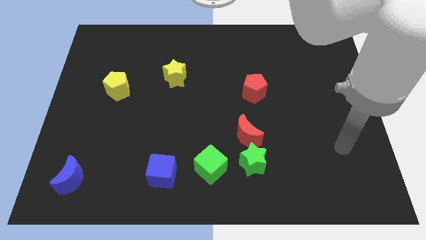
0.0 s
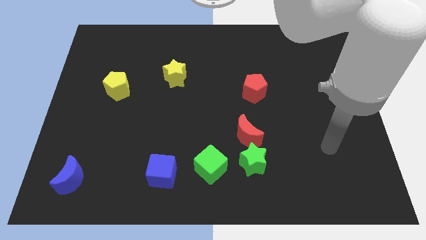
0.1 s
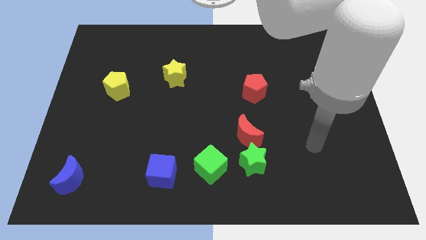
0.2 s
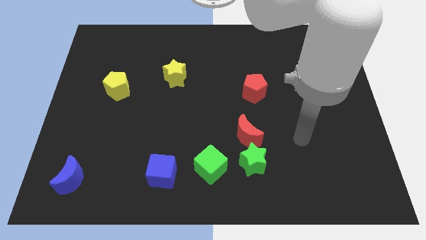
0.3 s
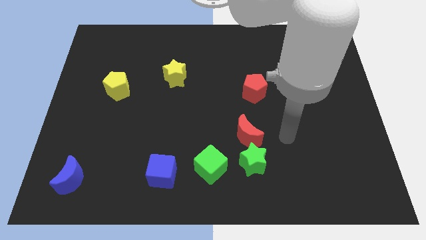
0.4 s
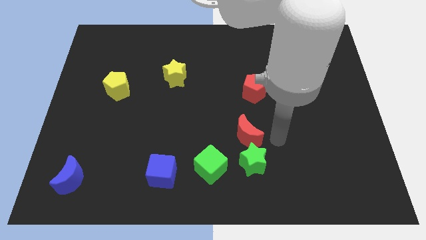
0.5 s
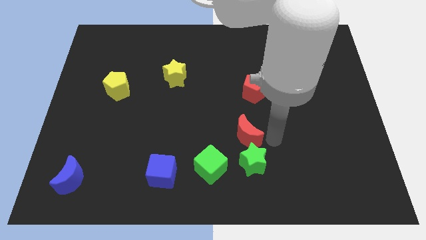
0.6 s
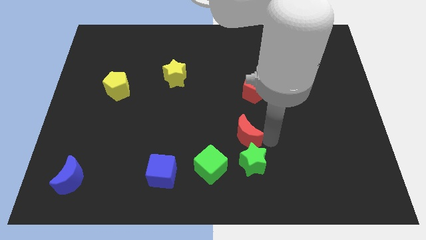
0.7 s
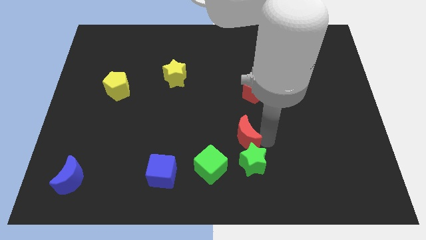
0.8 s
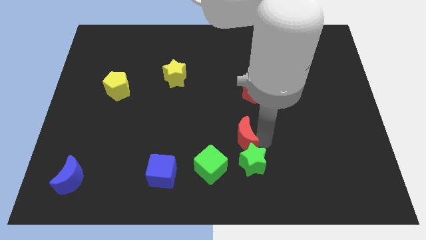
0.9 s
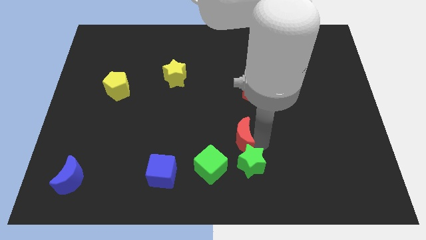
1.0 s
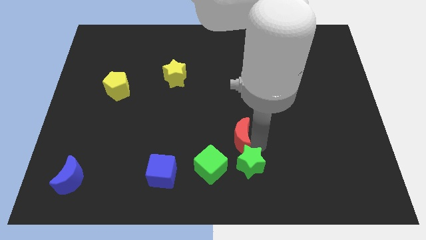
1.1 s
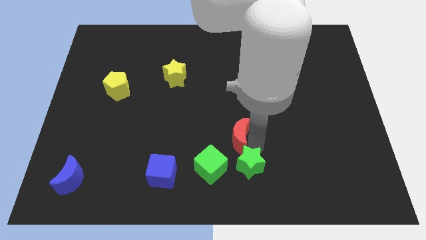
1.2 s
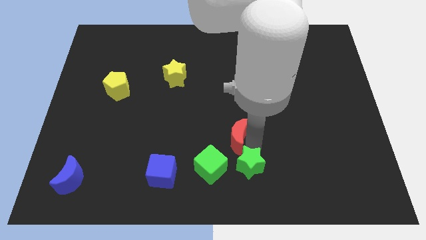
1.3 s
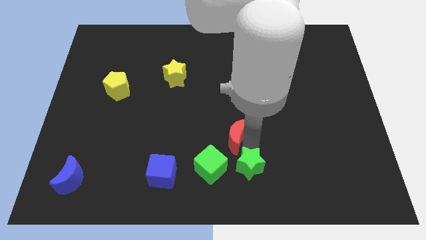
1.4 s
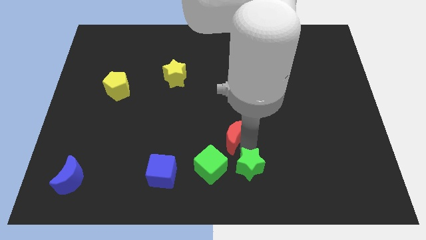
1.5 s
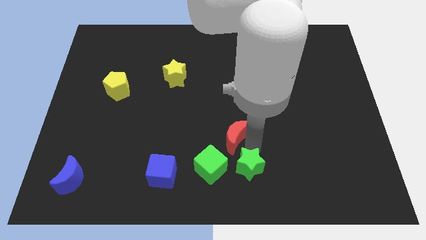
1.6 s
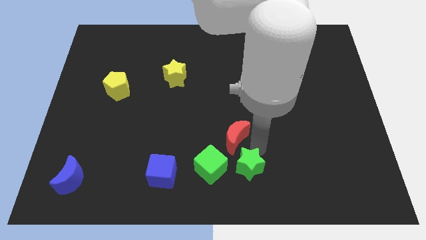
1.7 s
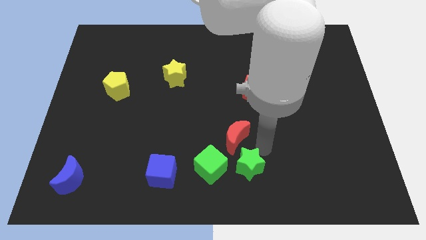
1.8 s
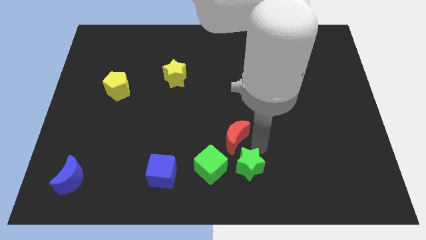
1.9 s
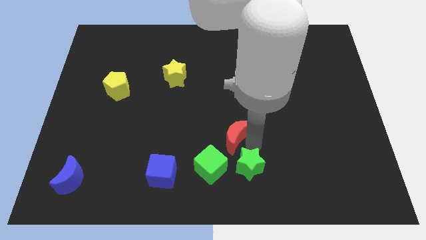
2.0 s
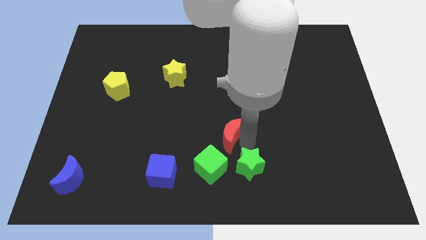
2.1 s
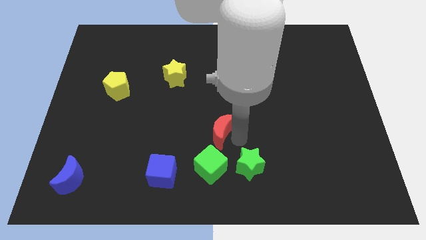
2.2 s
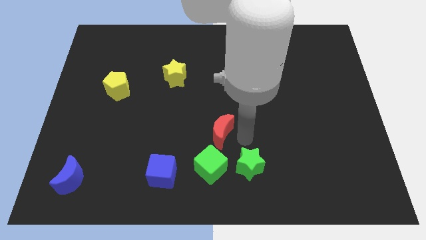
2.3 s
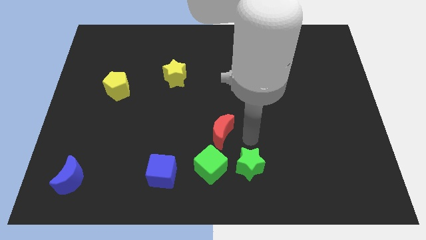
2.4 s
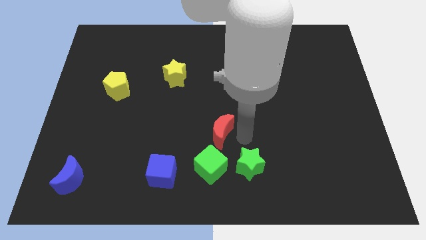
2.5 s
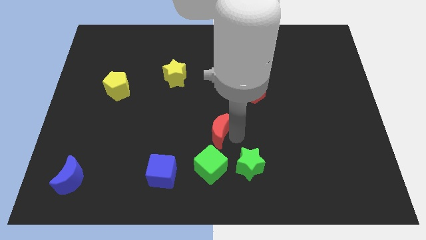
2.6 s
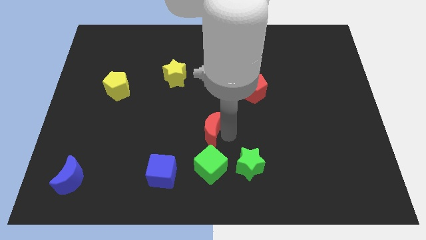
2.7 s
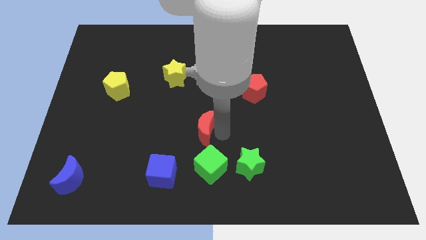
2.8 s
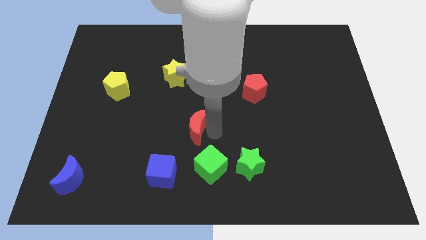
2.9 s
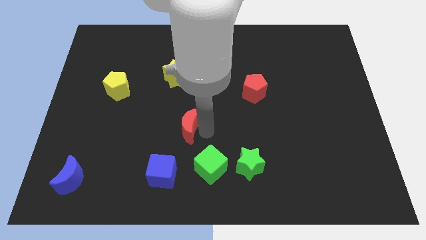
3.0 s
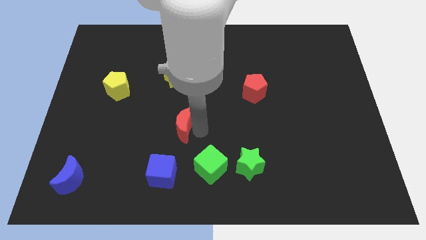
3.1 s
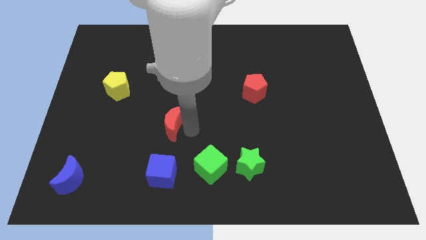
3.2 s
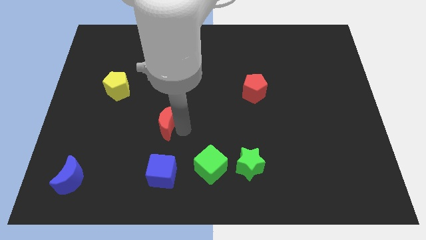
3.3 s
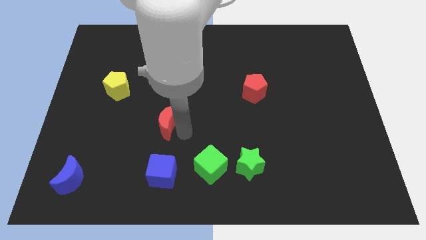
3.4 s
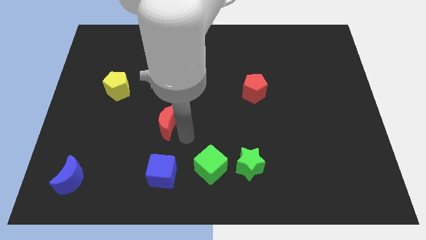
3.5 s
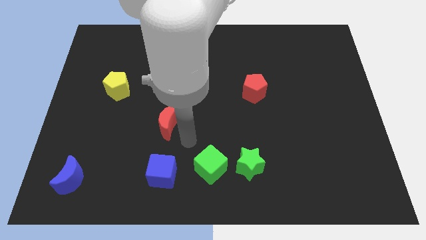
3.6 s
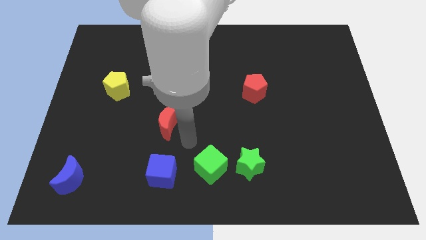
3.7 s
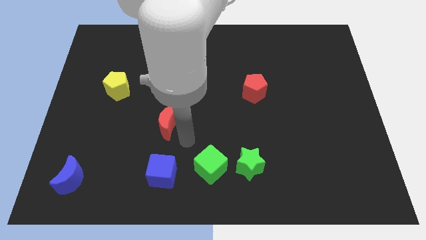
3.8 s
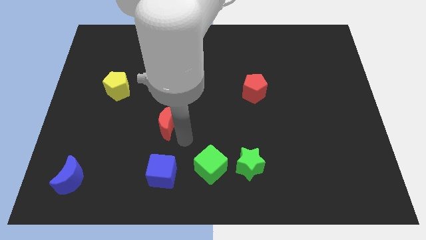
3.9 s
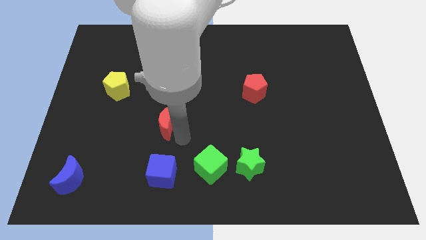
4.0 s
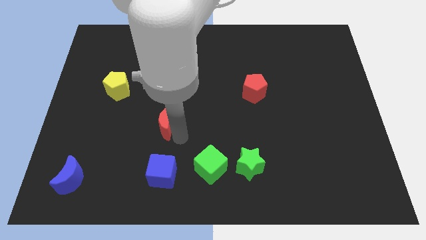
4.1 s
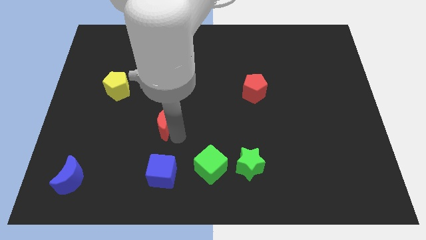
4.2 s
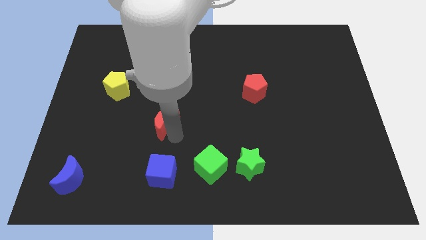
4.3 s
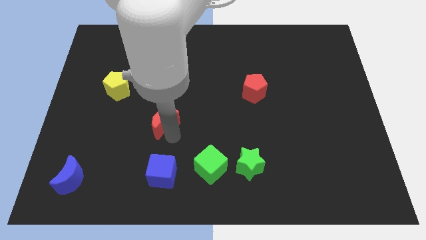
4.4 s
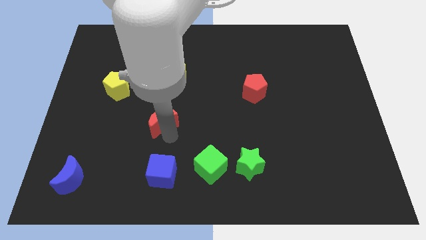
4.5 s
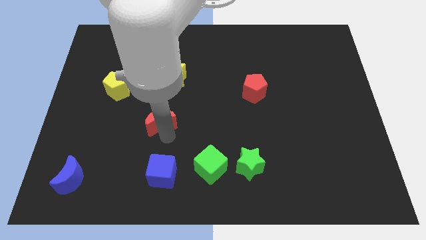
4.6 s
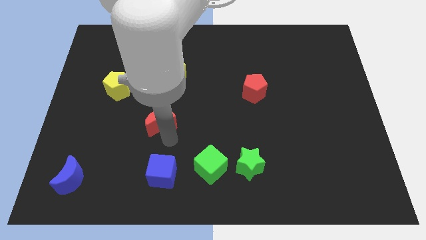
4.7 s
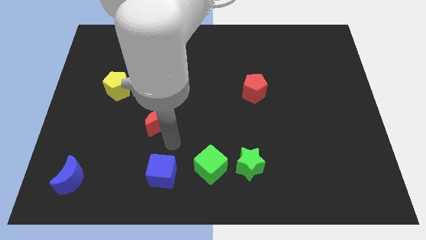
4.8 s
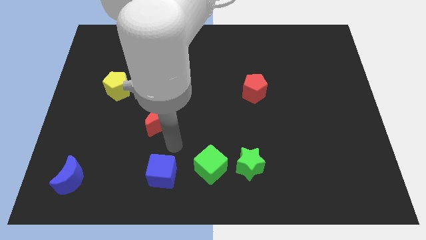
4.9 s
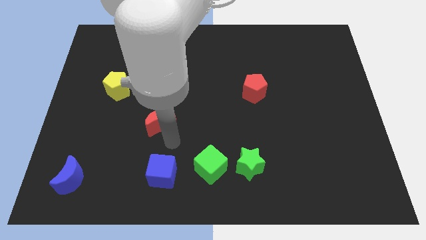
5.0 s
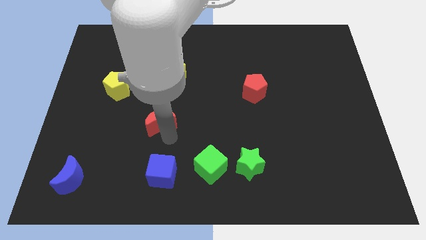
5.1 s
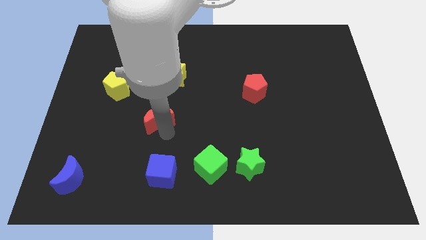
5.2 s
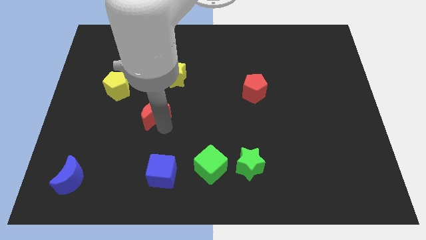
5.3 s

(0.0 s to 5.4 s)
push the red moon to the bottom right side of the yellow pentagon

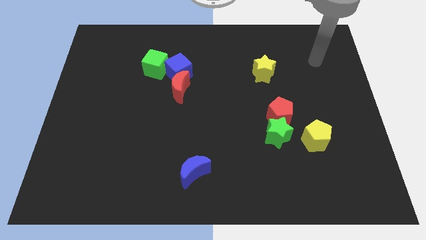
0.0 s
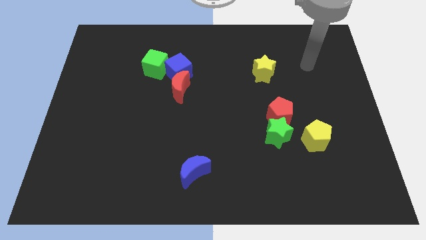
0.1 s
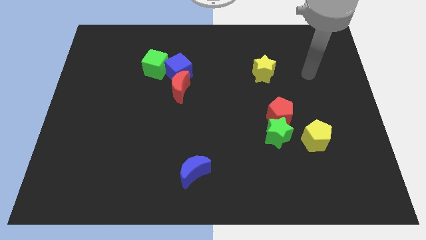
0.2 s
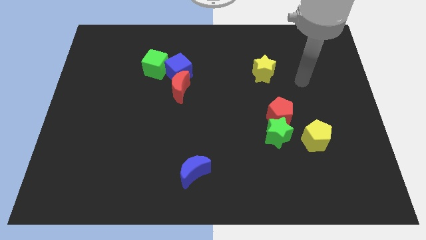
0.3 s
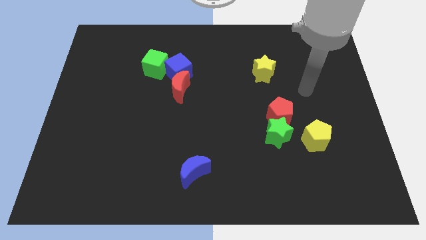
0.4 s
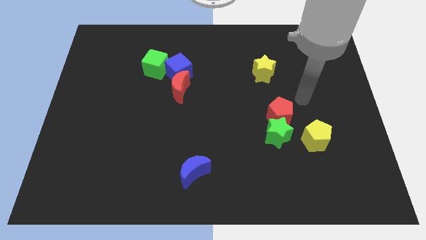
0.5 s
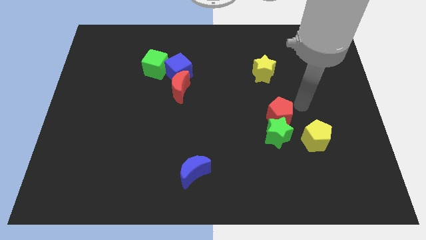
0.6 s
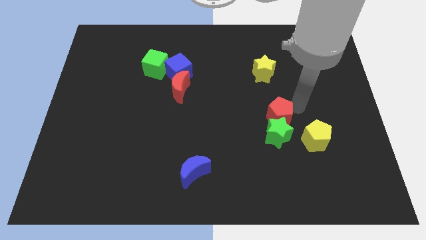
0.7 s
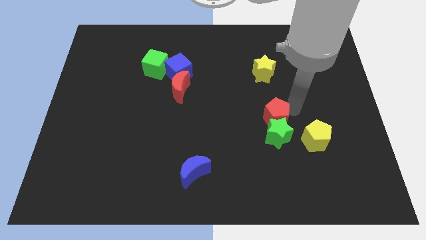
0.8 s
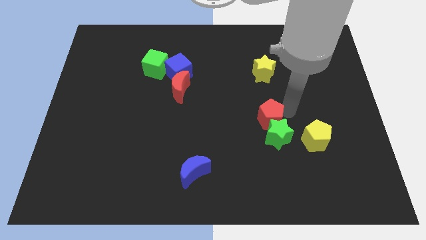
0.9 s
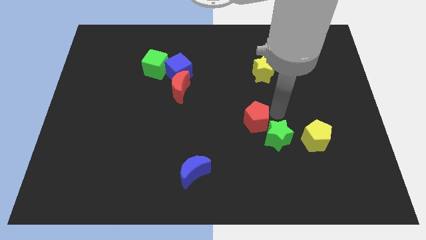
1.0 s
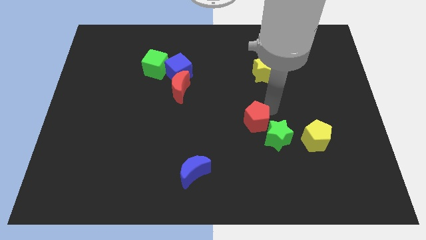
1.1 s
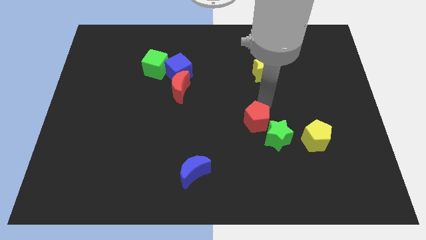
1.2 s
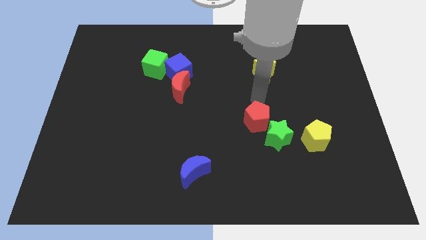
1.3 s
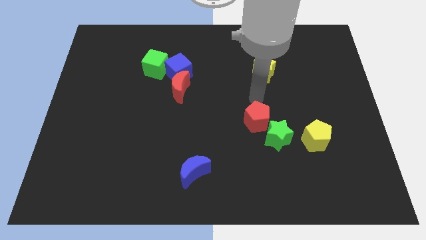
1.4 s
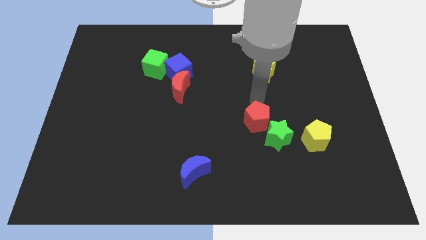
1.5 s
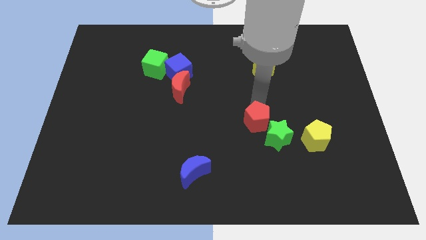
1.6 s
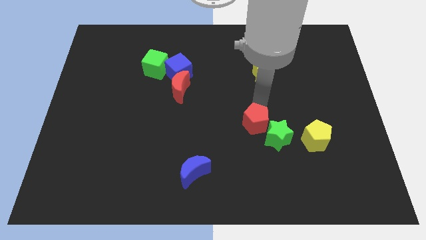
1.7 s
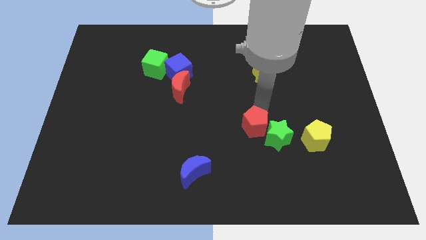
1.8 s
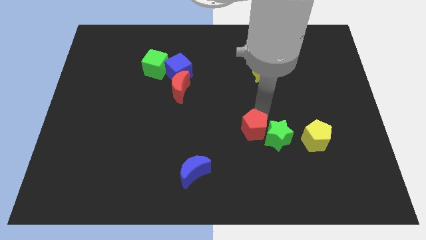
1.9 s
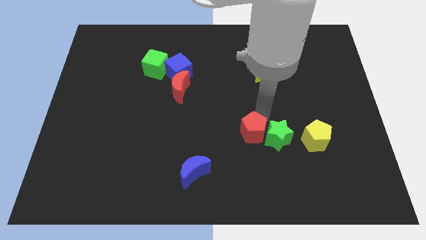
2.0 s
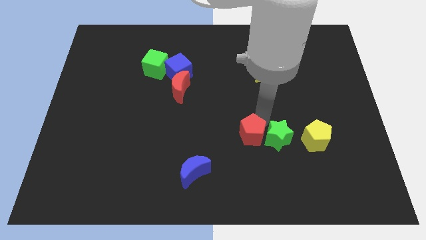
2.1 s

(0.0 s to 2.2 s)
move the red pentagon diagonally down and to the left of the green star
